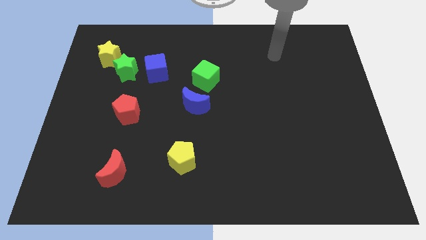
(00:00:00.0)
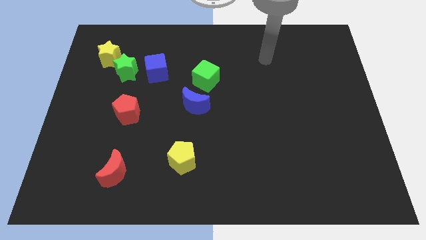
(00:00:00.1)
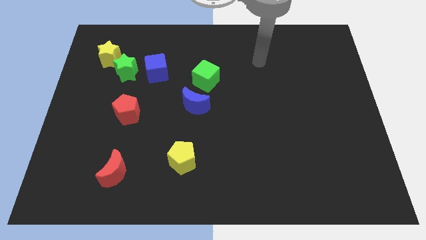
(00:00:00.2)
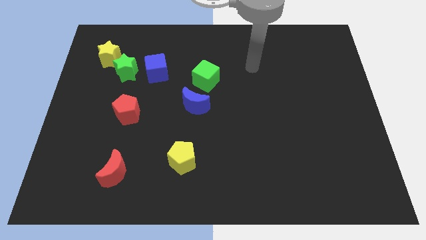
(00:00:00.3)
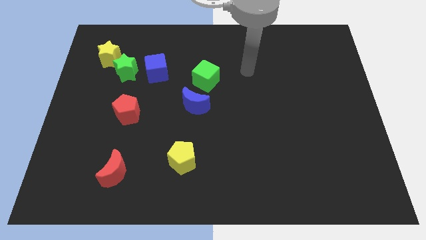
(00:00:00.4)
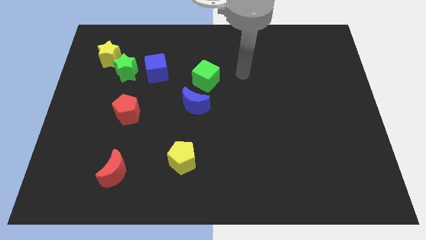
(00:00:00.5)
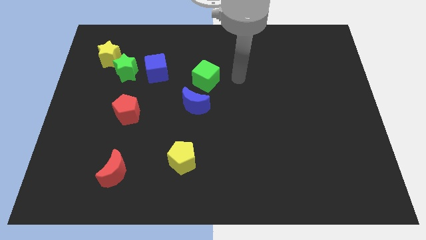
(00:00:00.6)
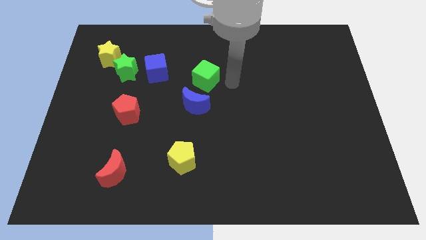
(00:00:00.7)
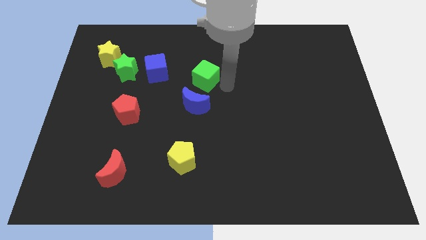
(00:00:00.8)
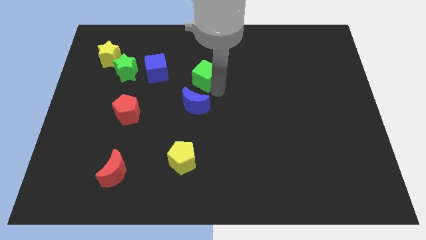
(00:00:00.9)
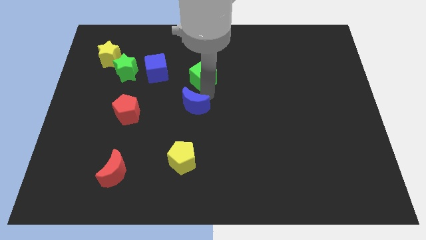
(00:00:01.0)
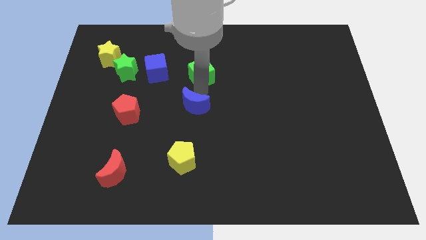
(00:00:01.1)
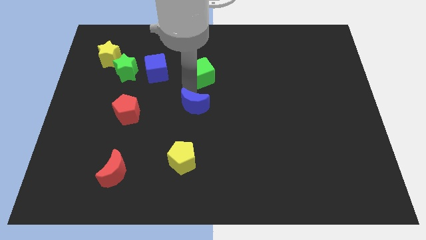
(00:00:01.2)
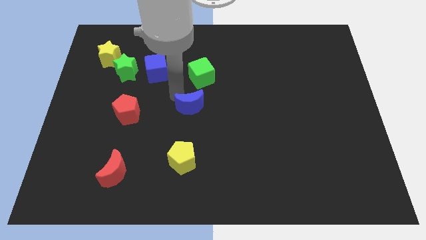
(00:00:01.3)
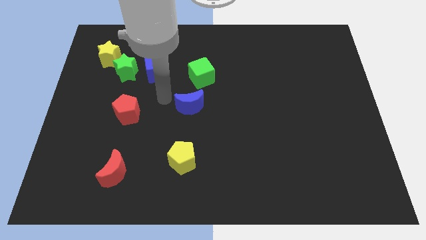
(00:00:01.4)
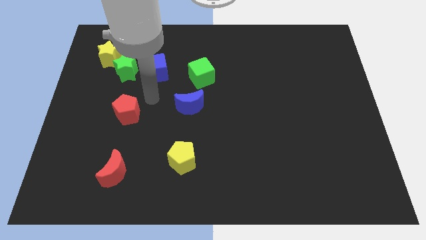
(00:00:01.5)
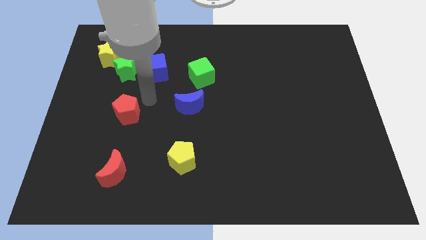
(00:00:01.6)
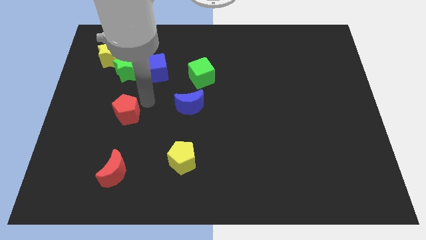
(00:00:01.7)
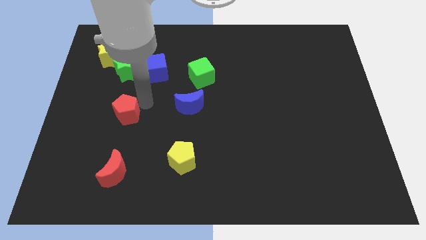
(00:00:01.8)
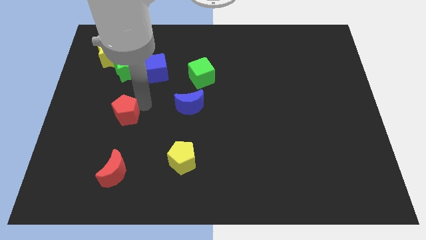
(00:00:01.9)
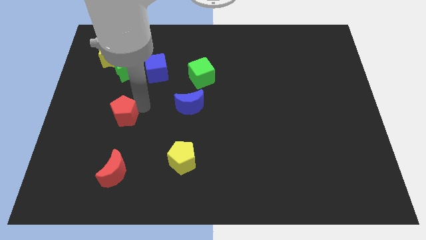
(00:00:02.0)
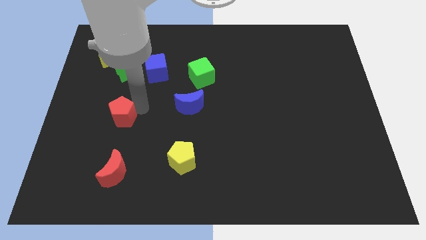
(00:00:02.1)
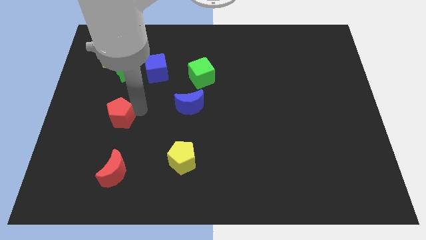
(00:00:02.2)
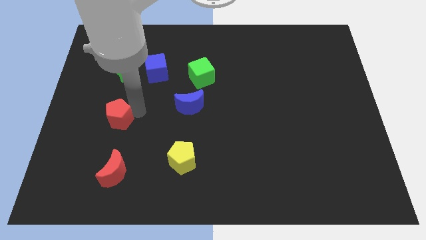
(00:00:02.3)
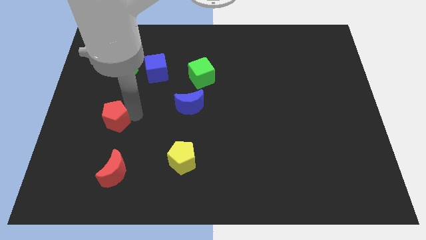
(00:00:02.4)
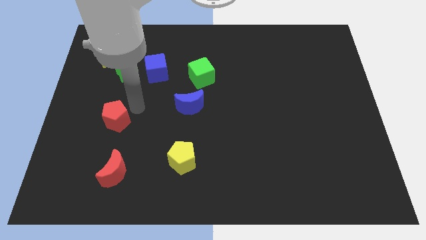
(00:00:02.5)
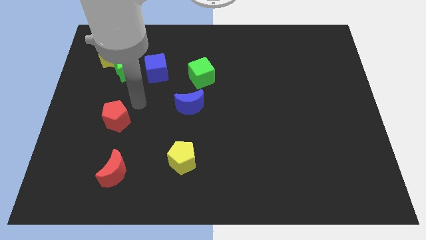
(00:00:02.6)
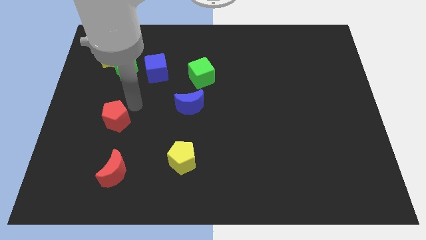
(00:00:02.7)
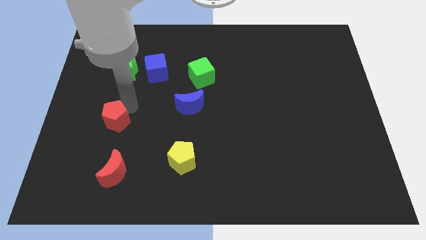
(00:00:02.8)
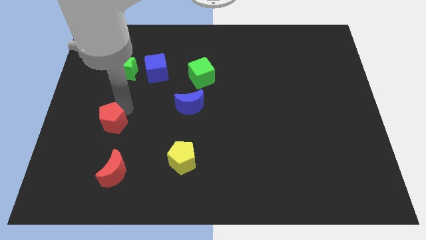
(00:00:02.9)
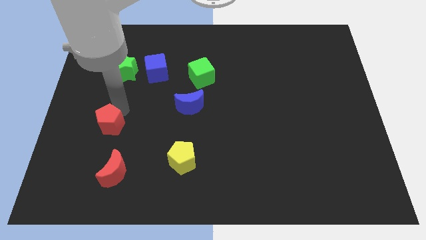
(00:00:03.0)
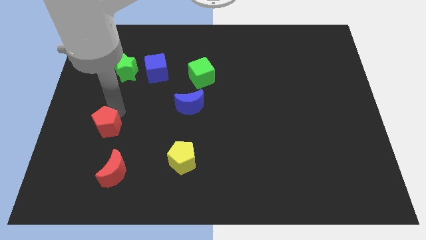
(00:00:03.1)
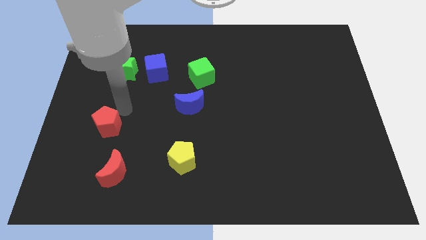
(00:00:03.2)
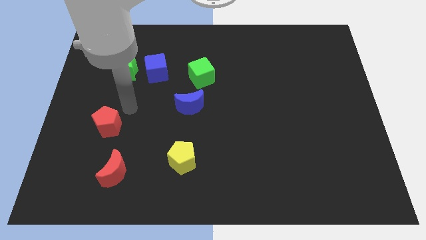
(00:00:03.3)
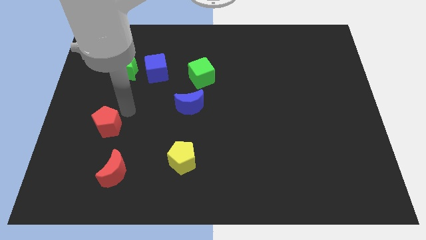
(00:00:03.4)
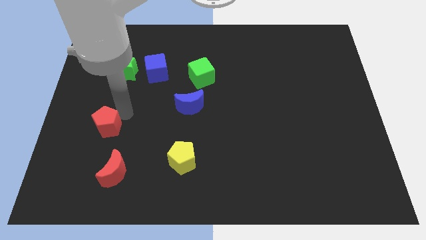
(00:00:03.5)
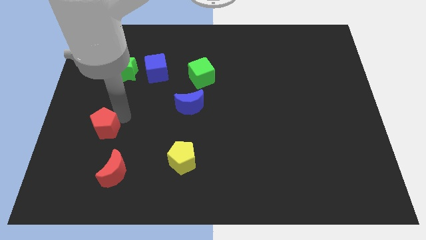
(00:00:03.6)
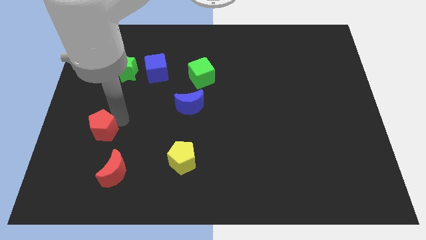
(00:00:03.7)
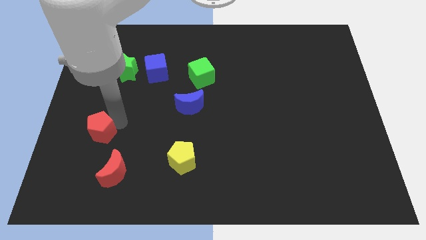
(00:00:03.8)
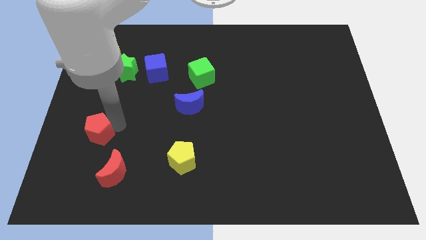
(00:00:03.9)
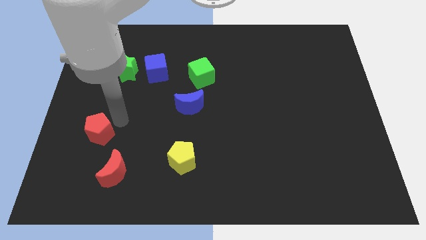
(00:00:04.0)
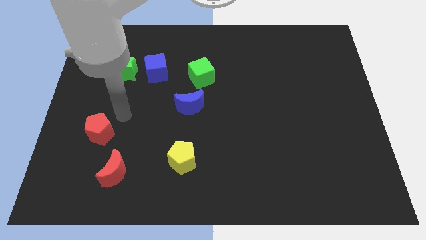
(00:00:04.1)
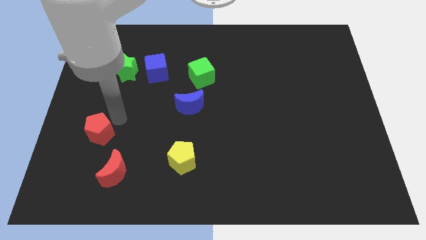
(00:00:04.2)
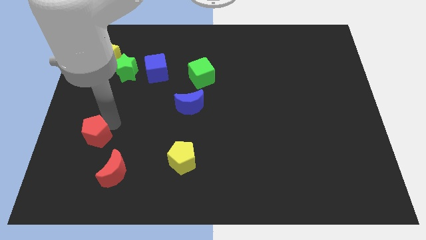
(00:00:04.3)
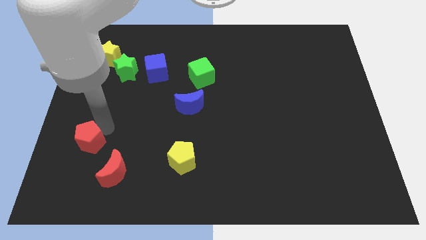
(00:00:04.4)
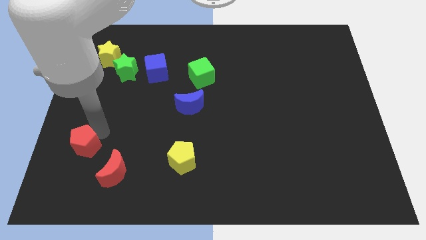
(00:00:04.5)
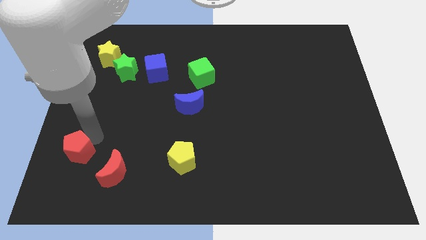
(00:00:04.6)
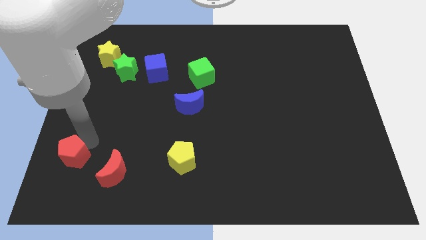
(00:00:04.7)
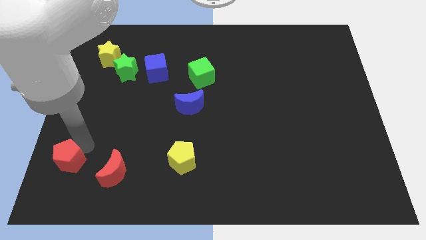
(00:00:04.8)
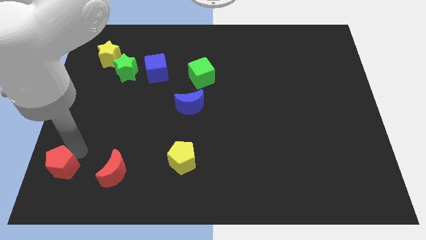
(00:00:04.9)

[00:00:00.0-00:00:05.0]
put the red pentagon to the bottom left of the board
